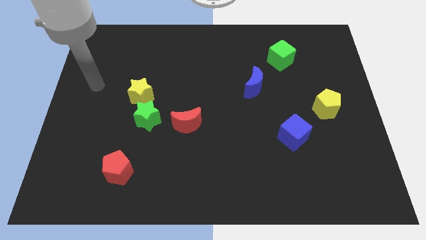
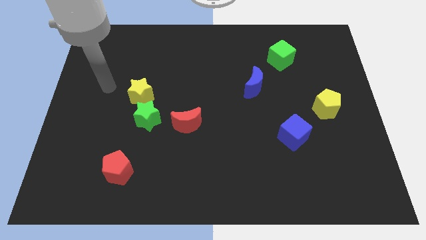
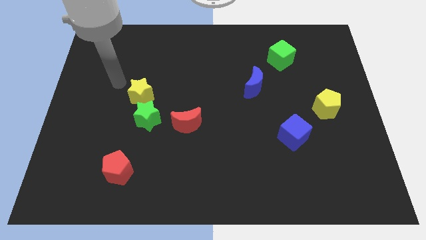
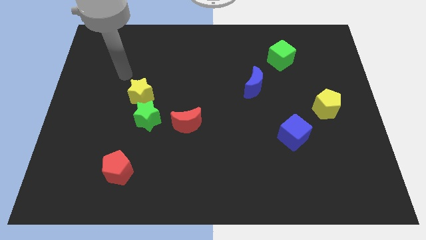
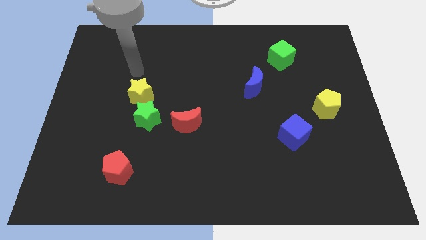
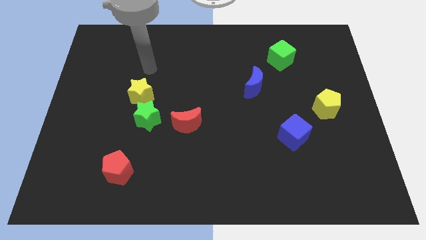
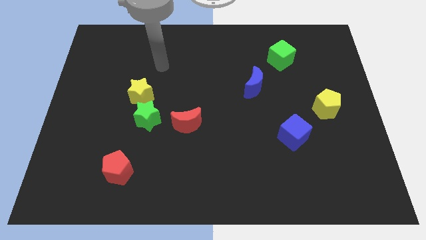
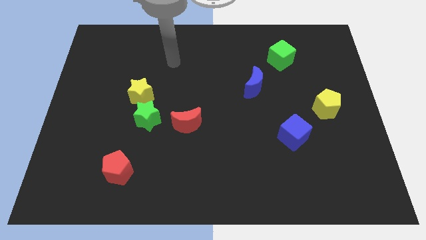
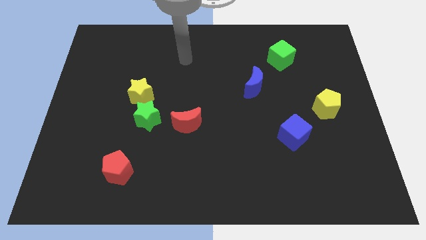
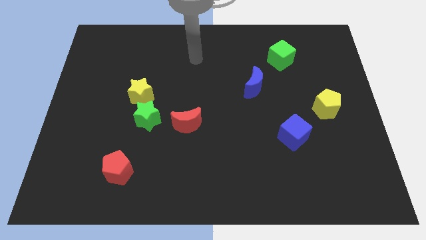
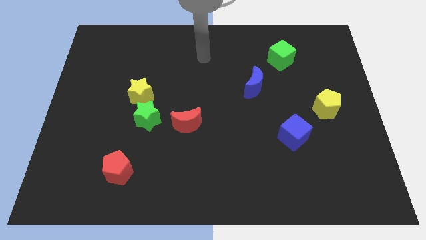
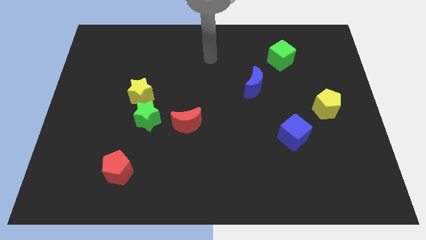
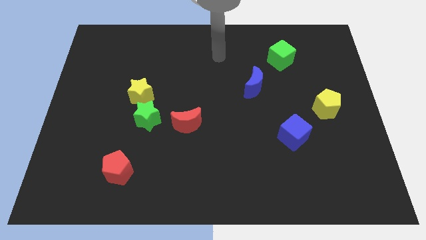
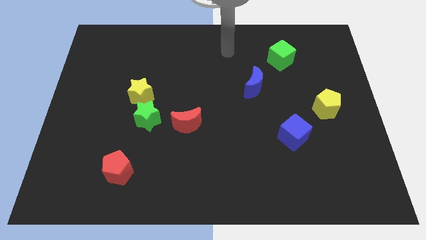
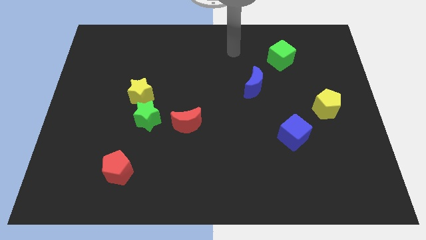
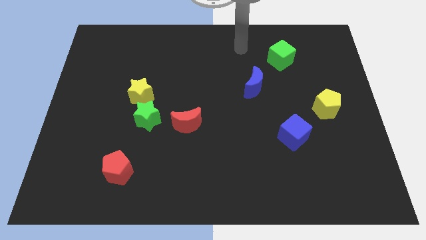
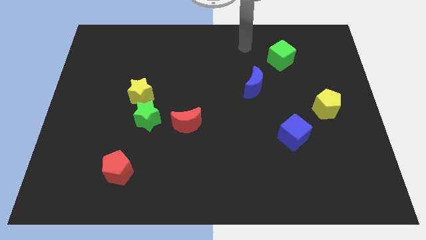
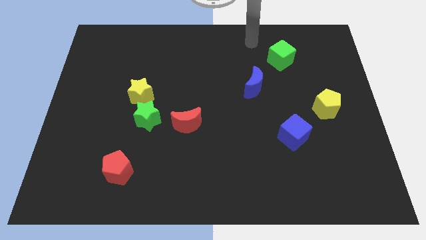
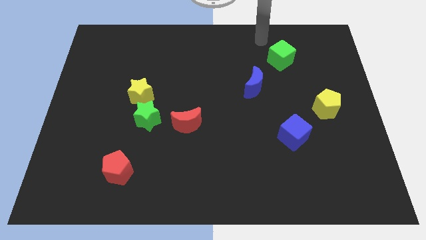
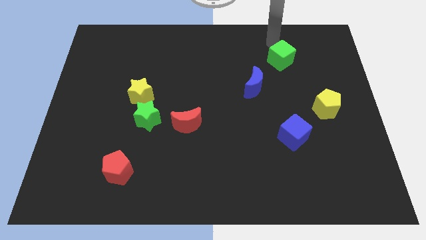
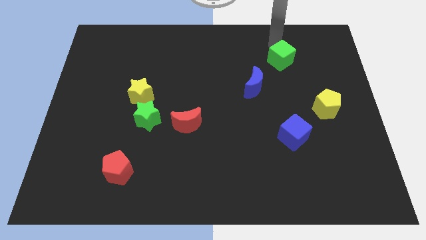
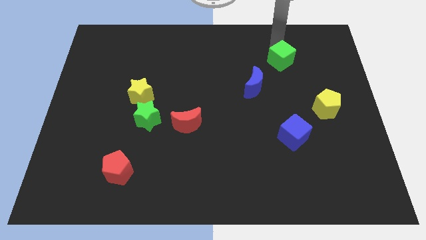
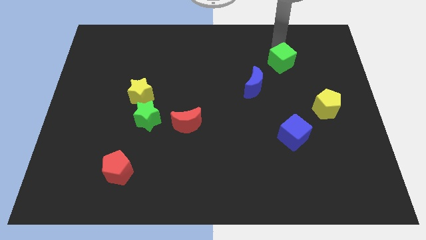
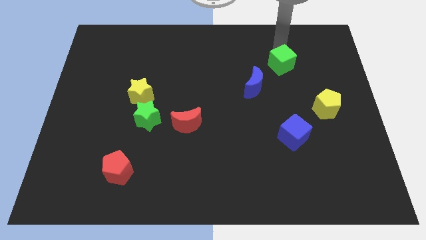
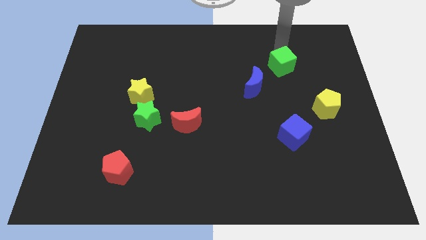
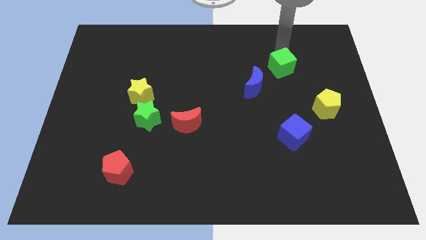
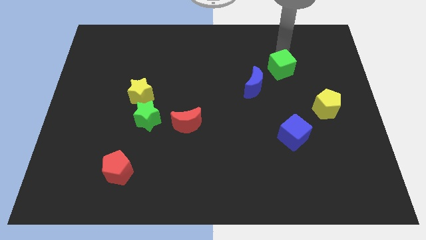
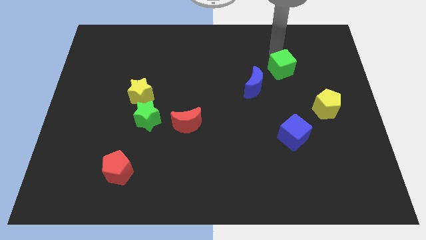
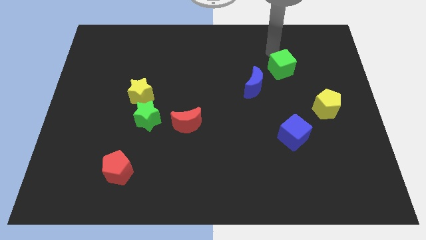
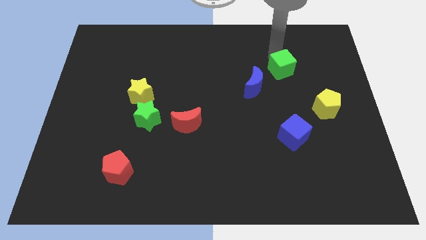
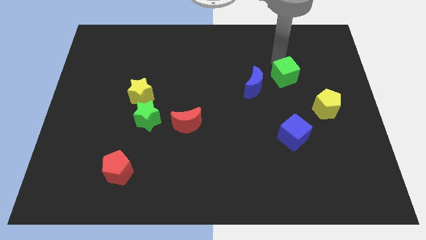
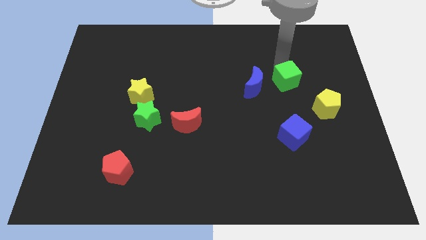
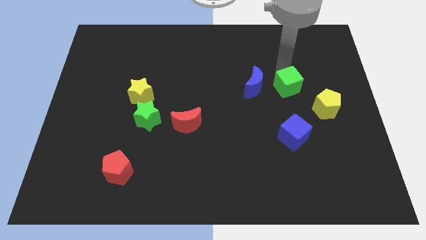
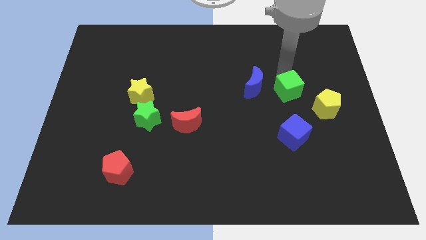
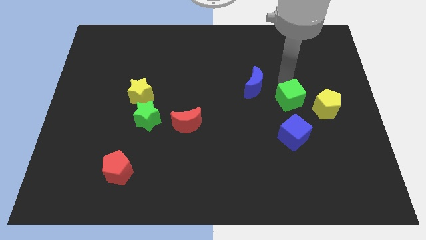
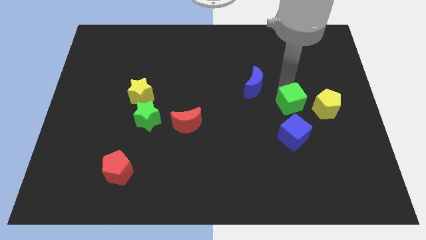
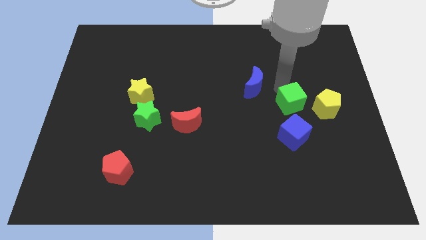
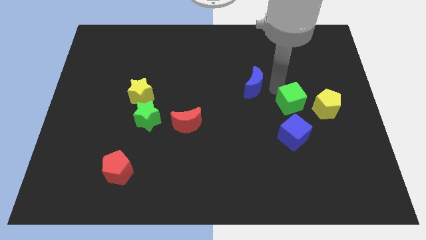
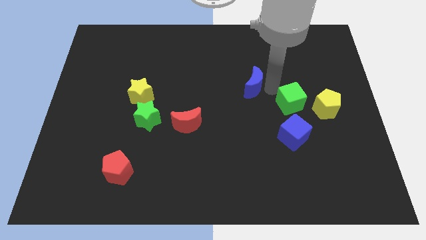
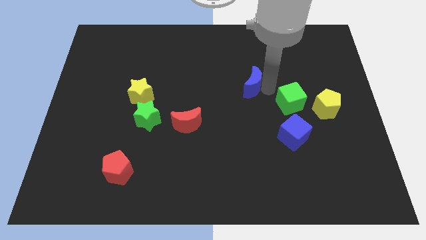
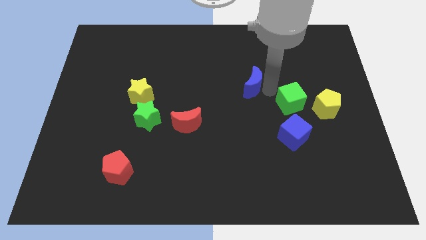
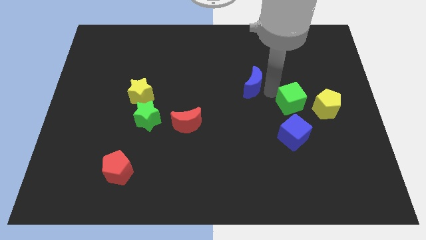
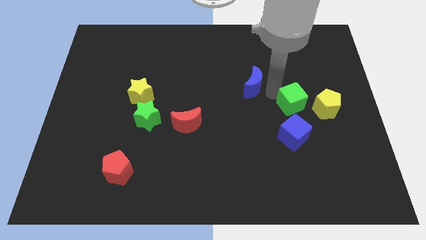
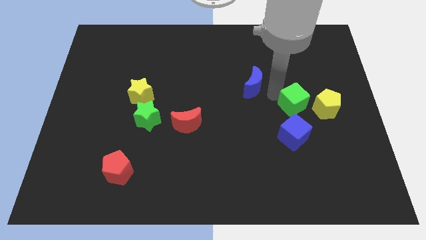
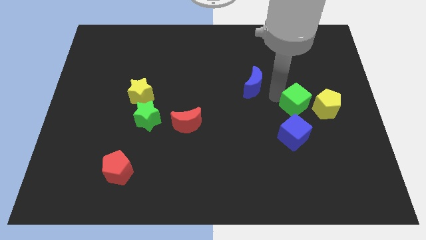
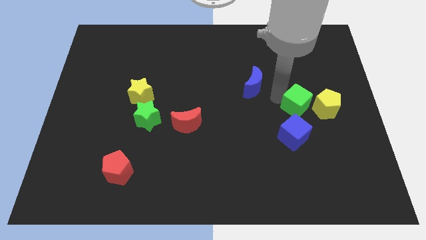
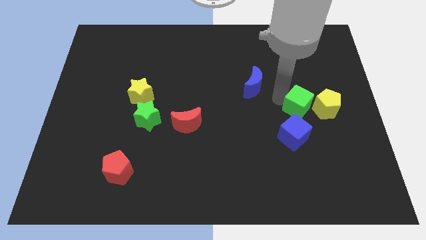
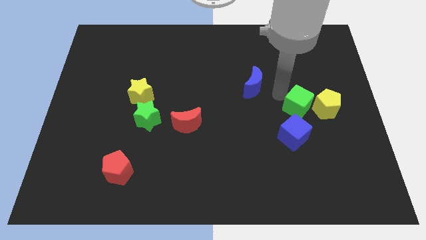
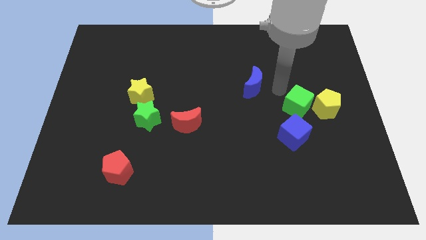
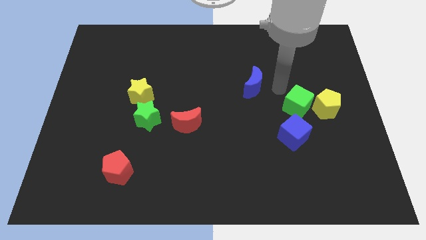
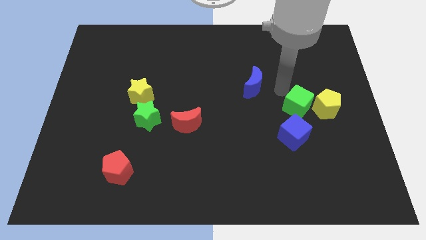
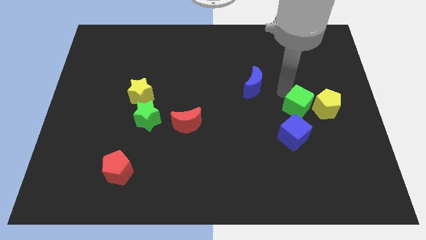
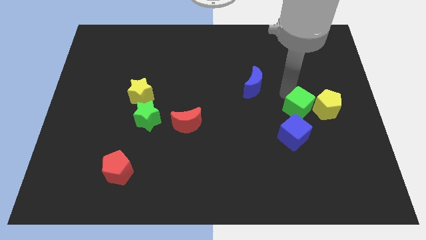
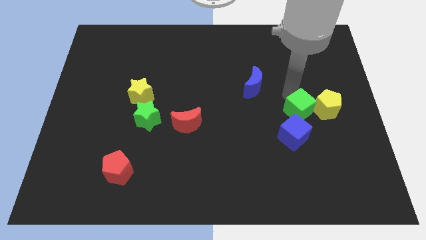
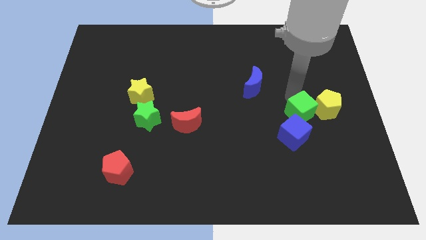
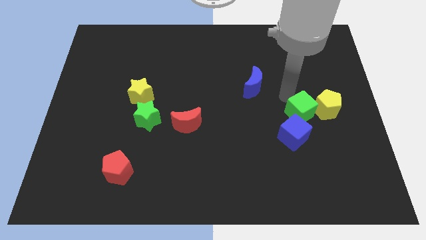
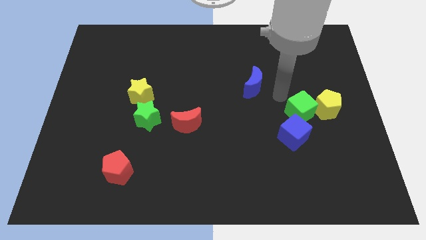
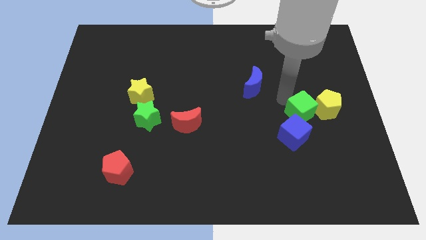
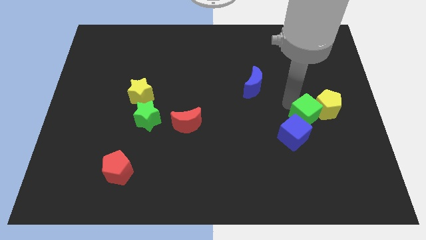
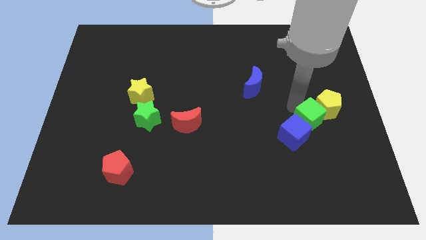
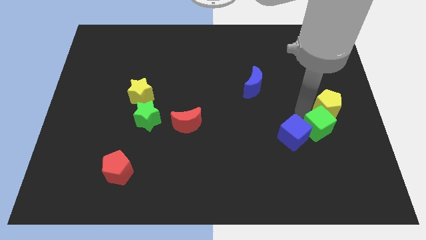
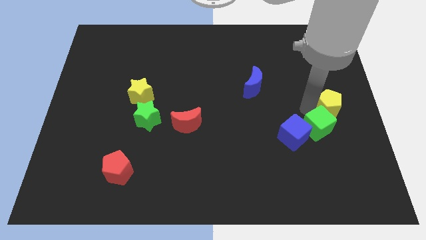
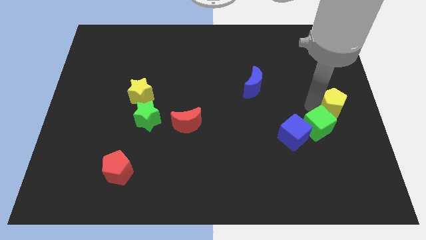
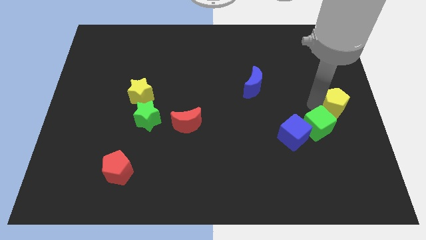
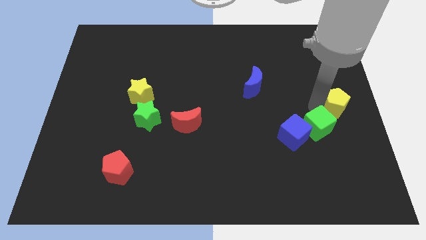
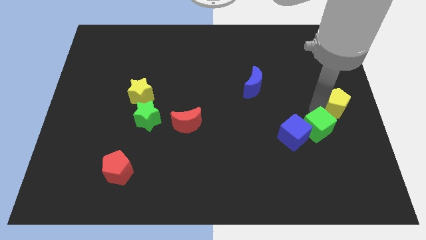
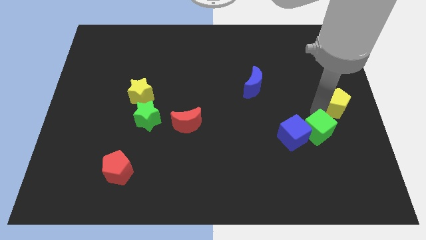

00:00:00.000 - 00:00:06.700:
move the green cube to the bottom right side of the blue cube

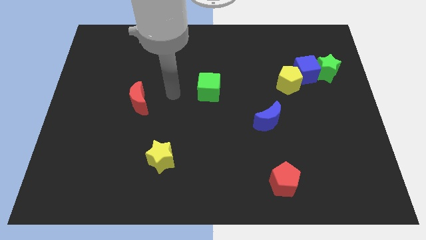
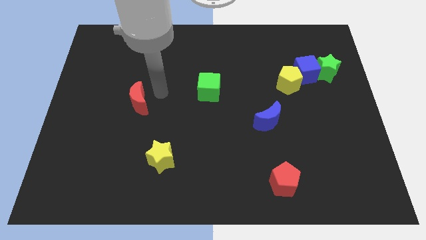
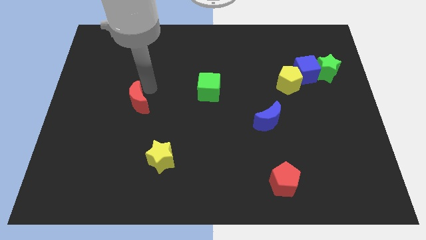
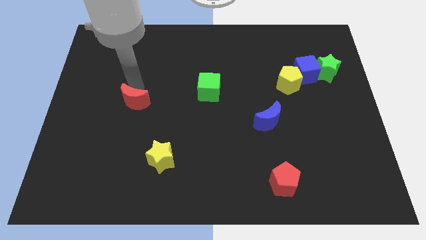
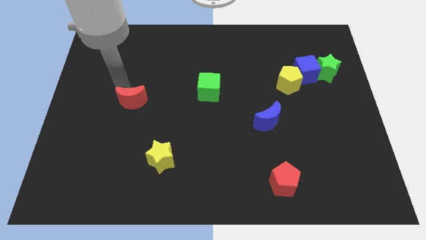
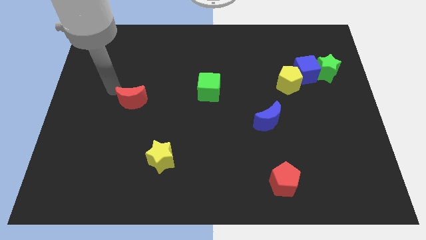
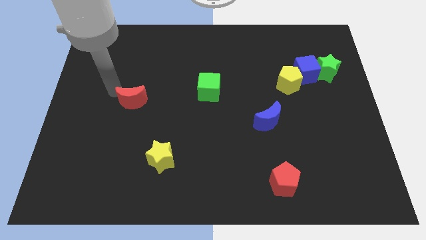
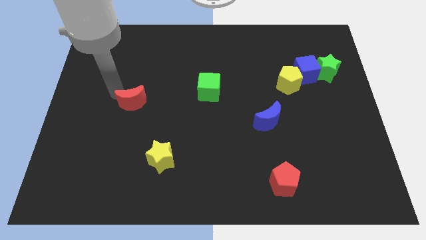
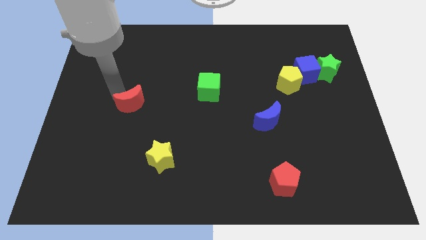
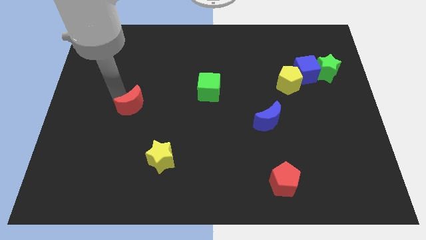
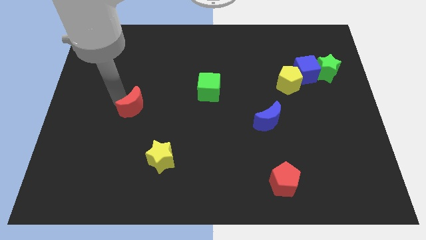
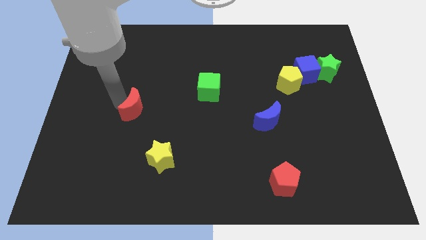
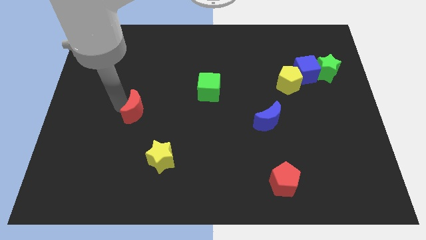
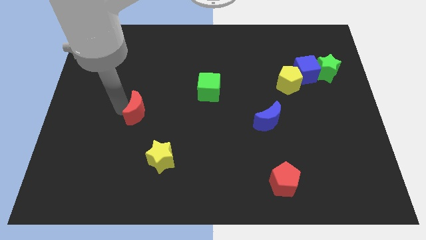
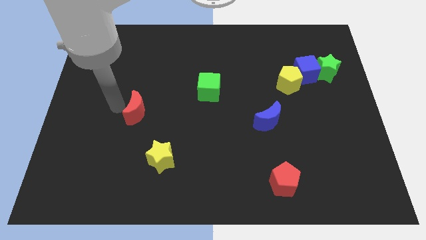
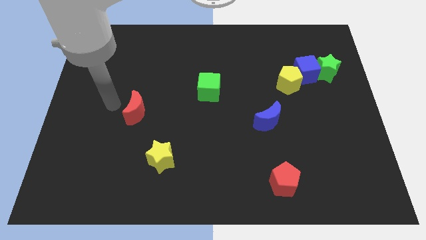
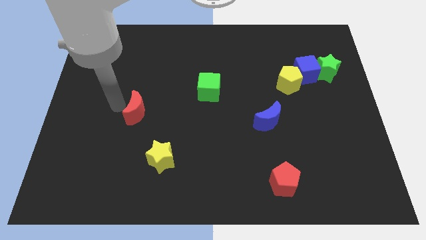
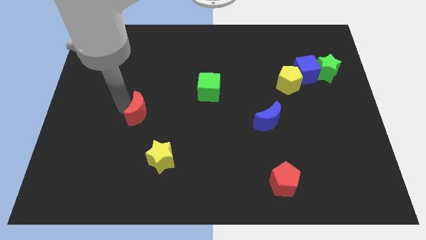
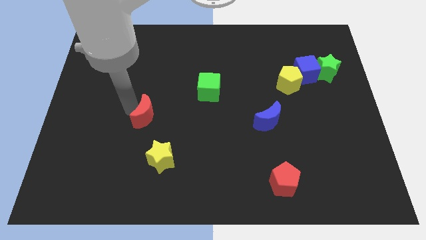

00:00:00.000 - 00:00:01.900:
slide the red moon to the top of the yellow star
